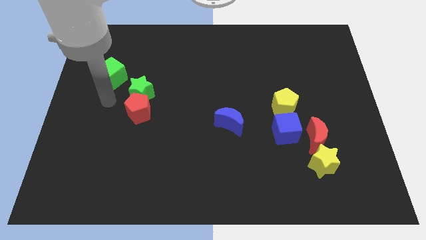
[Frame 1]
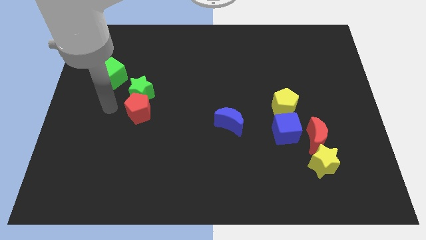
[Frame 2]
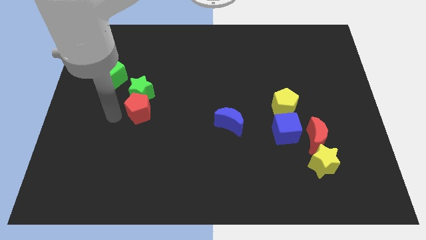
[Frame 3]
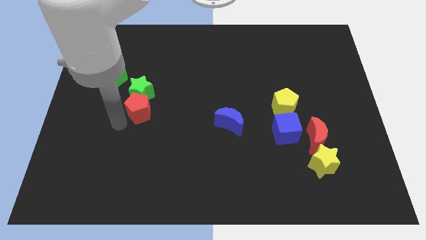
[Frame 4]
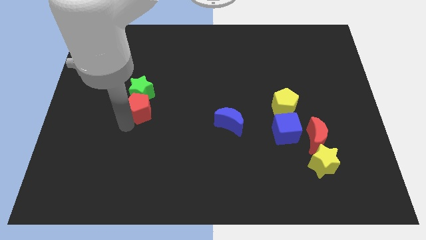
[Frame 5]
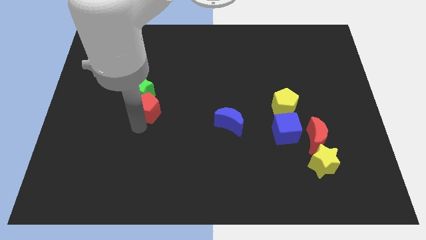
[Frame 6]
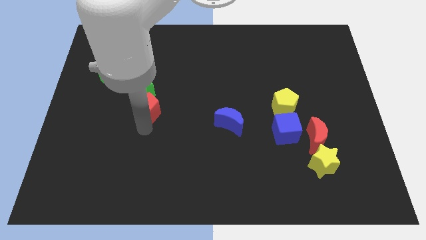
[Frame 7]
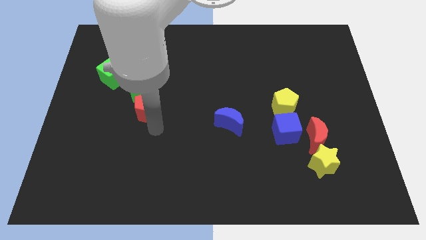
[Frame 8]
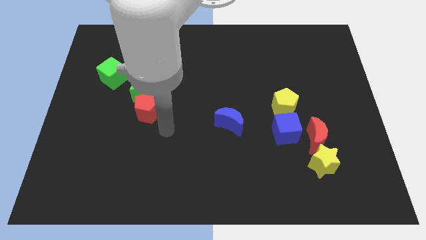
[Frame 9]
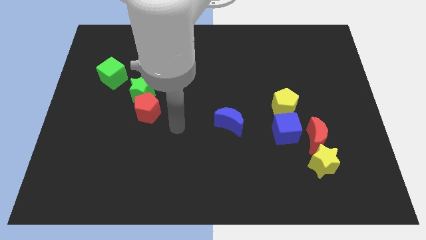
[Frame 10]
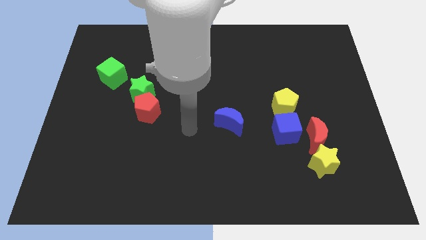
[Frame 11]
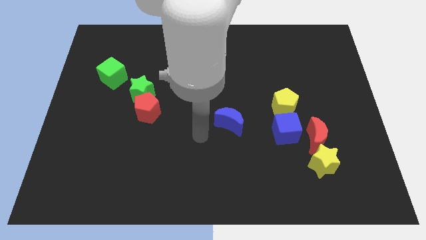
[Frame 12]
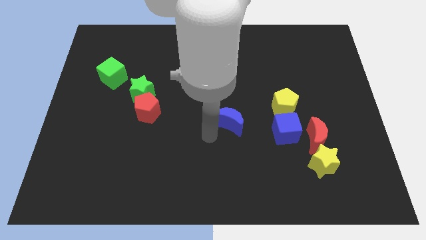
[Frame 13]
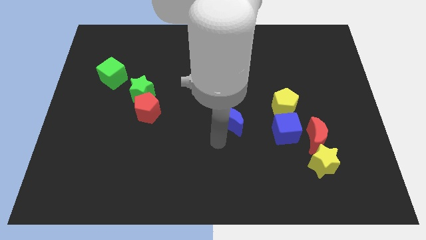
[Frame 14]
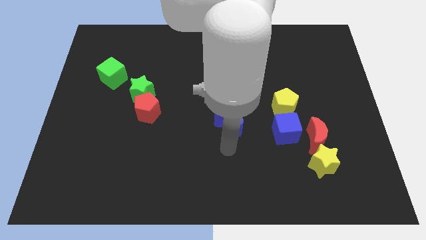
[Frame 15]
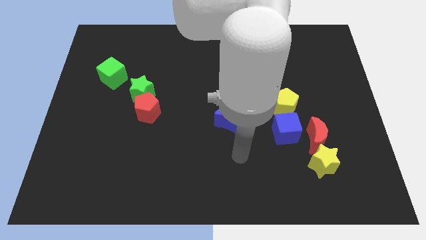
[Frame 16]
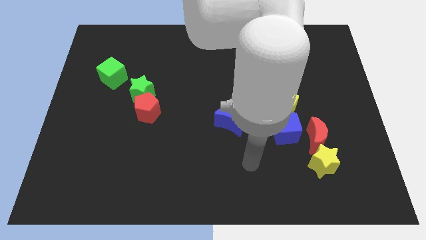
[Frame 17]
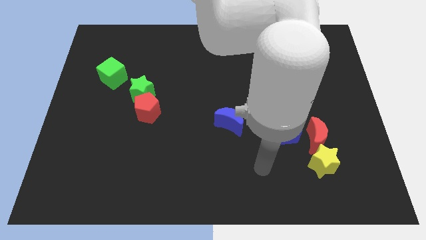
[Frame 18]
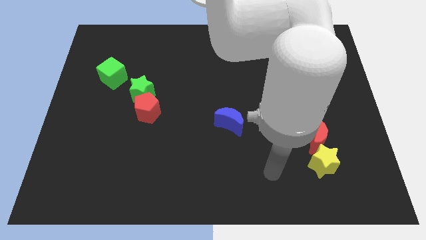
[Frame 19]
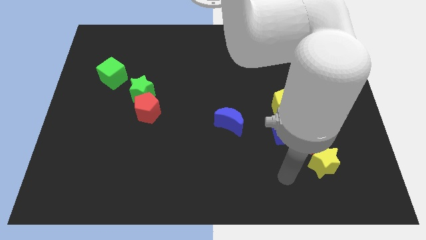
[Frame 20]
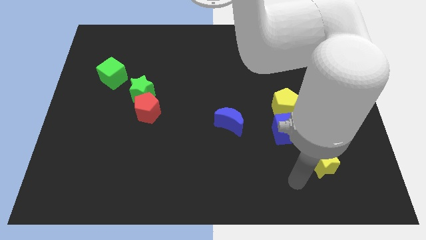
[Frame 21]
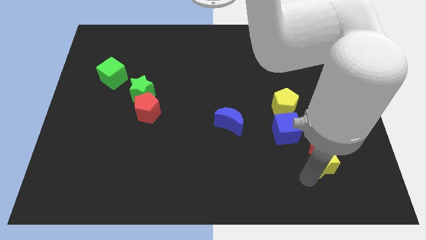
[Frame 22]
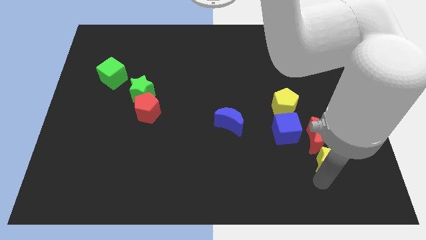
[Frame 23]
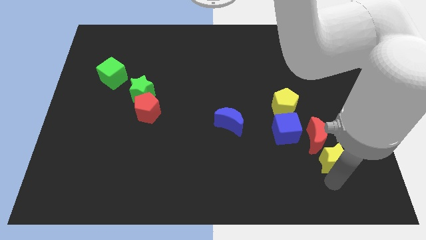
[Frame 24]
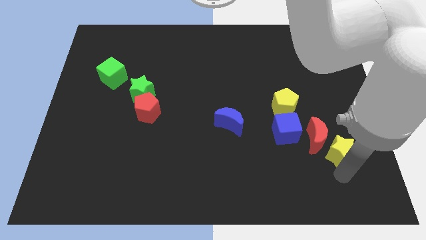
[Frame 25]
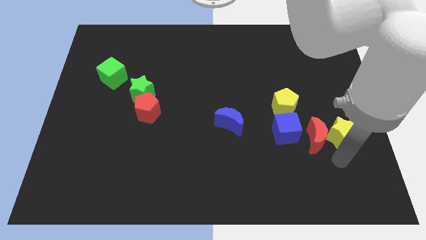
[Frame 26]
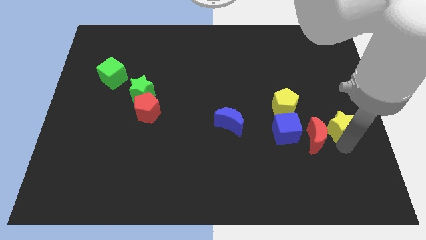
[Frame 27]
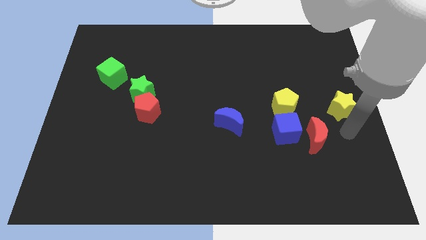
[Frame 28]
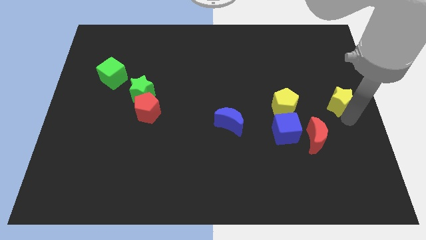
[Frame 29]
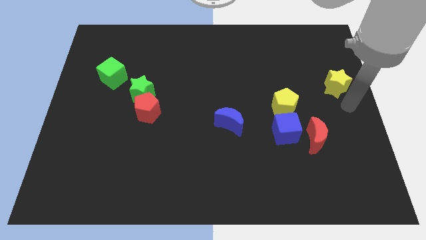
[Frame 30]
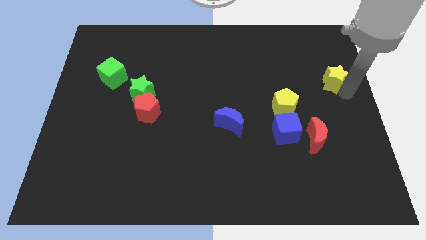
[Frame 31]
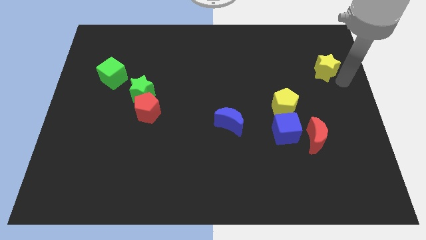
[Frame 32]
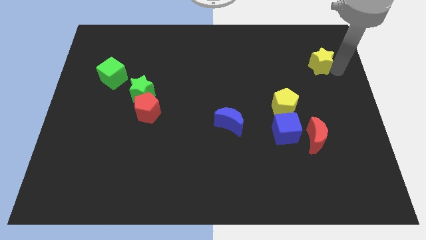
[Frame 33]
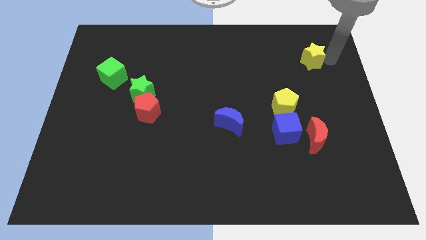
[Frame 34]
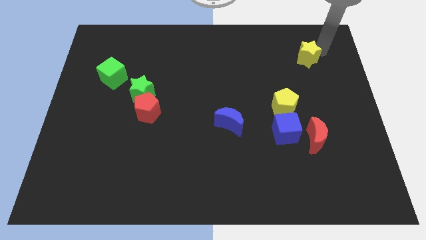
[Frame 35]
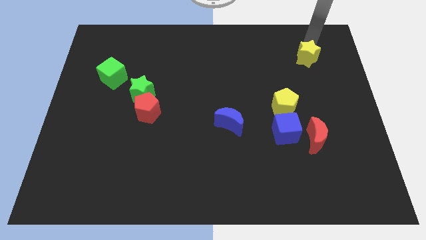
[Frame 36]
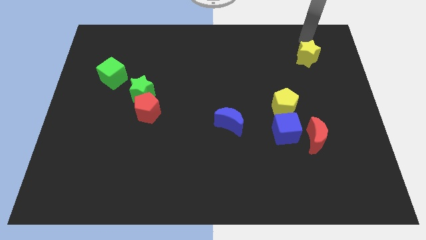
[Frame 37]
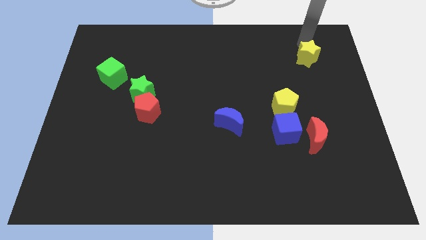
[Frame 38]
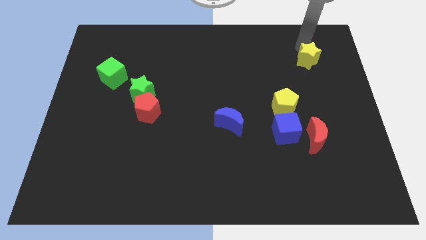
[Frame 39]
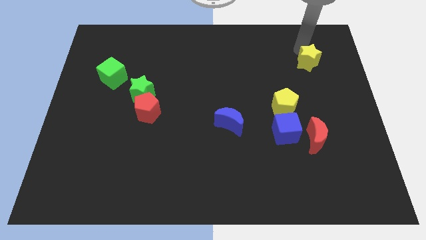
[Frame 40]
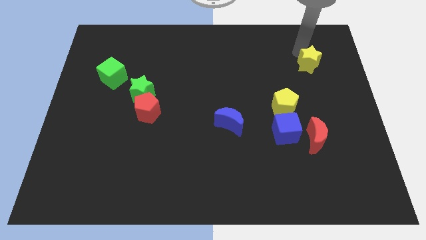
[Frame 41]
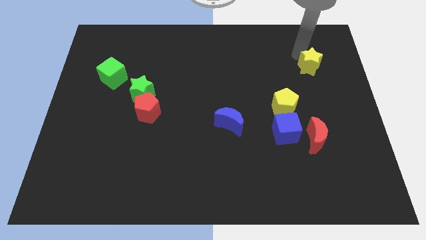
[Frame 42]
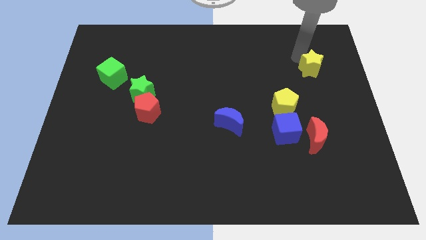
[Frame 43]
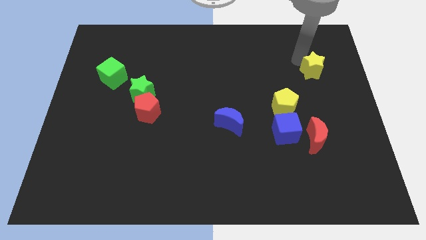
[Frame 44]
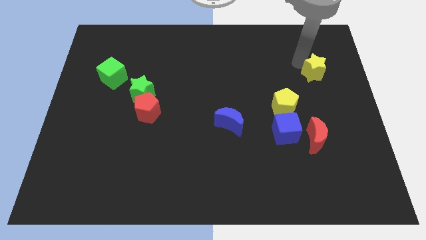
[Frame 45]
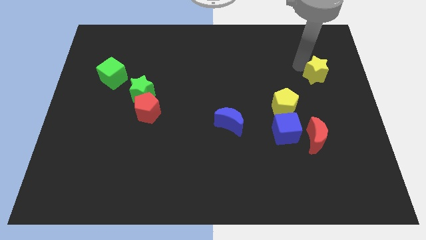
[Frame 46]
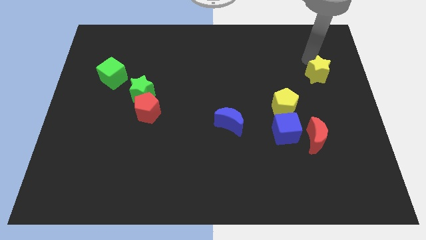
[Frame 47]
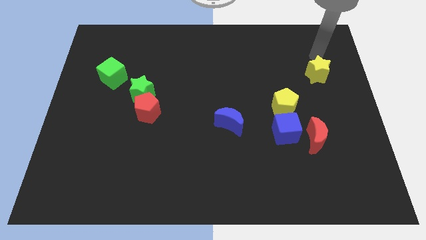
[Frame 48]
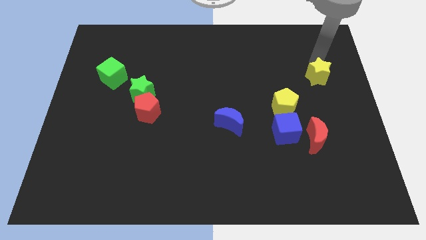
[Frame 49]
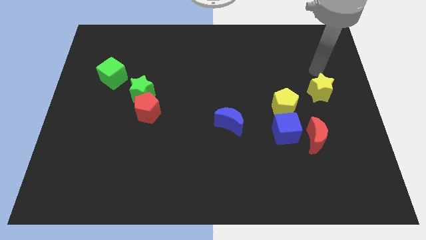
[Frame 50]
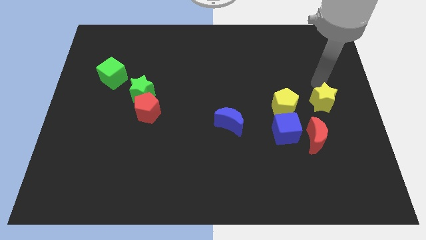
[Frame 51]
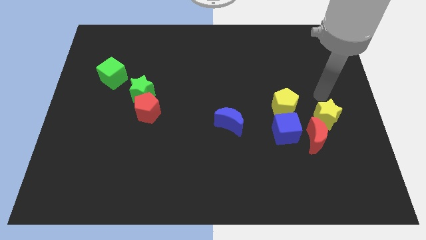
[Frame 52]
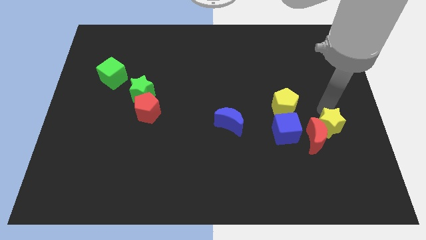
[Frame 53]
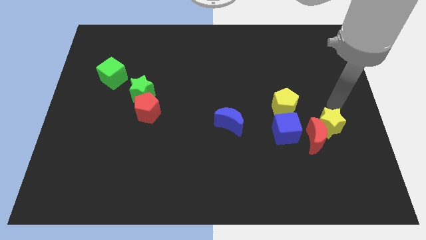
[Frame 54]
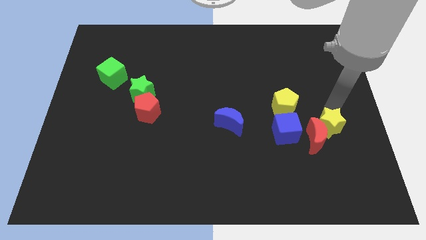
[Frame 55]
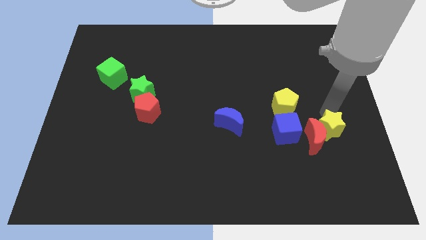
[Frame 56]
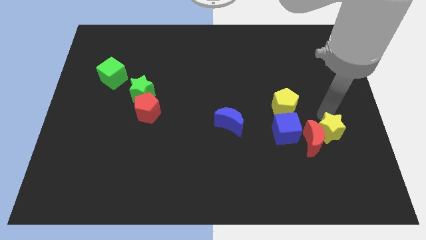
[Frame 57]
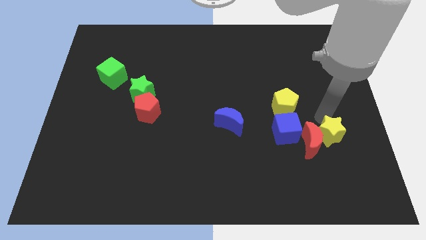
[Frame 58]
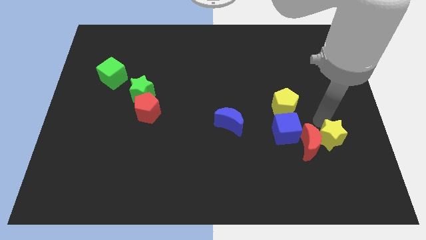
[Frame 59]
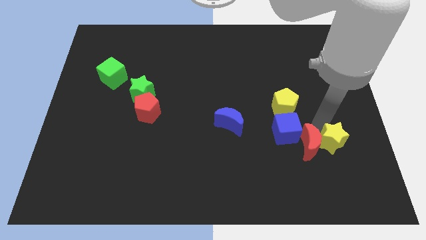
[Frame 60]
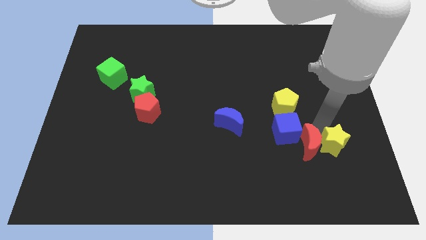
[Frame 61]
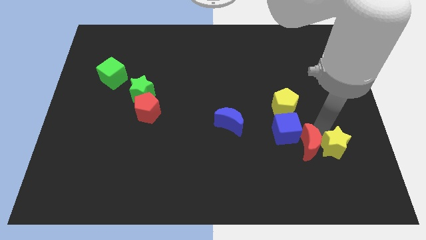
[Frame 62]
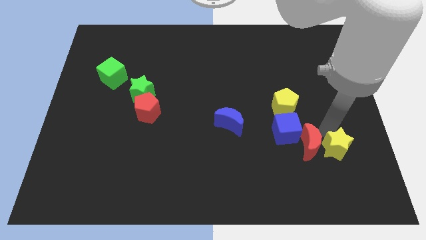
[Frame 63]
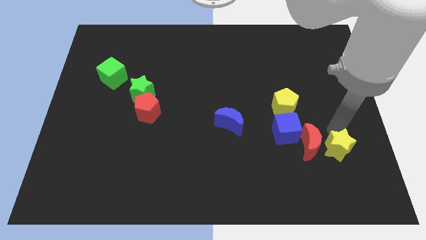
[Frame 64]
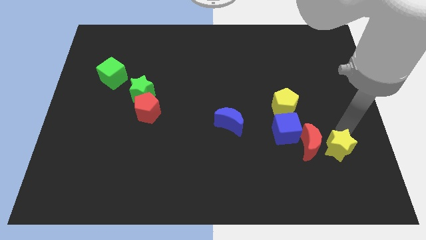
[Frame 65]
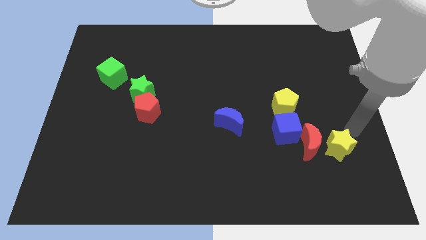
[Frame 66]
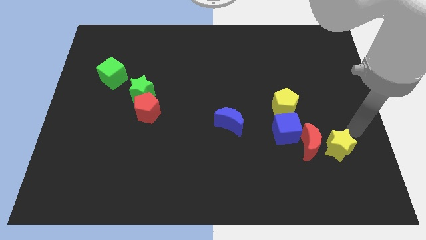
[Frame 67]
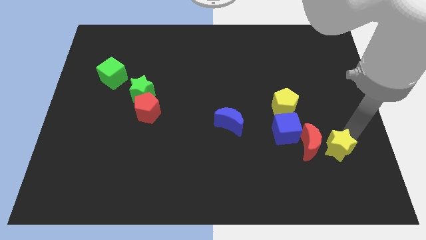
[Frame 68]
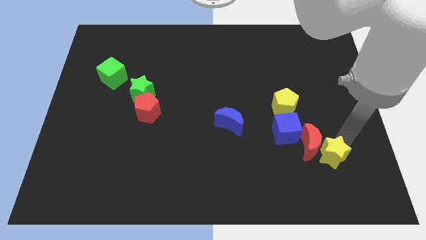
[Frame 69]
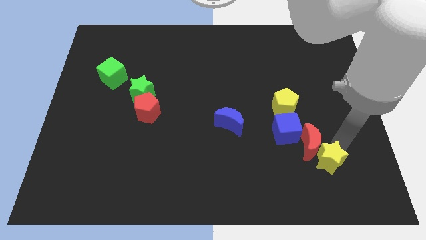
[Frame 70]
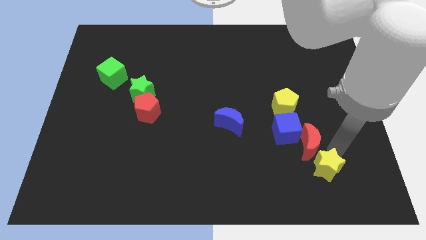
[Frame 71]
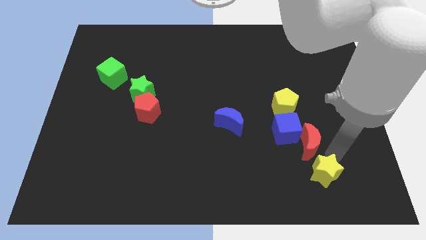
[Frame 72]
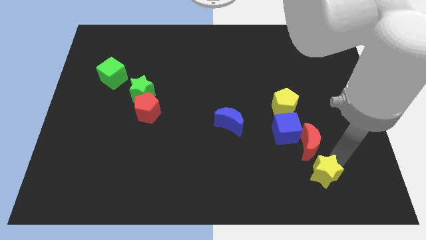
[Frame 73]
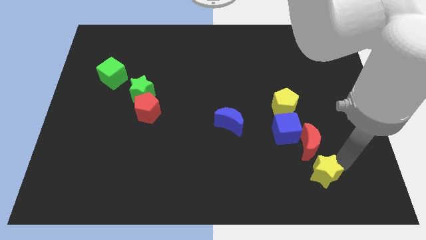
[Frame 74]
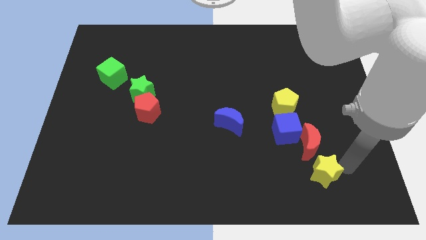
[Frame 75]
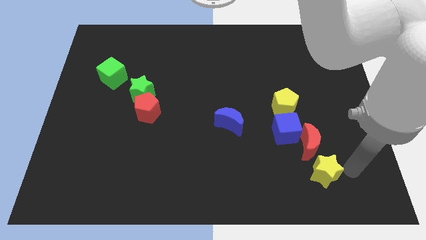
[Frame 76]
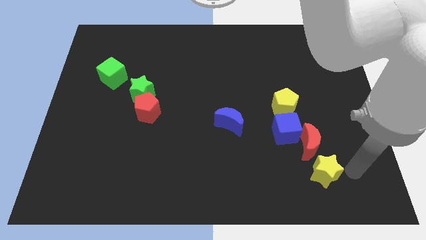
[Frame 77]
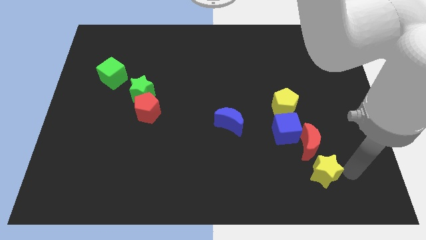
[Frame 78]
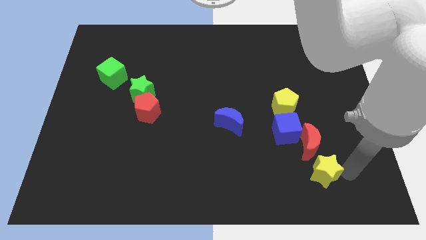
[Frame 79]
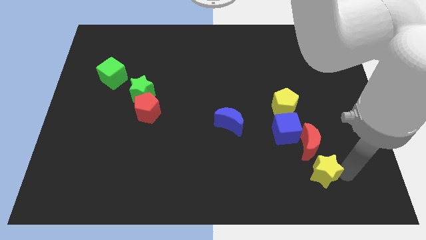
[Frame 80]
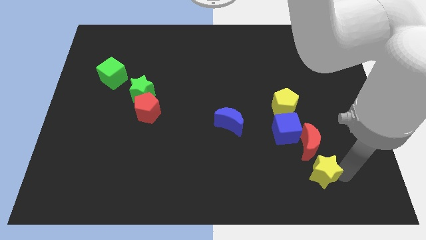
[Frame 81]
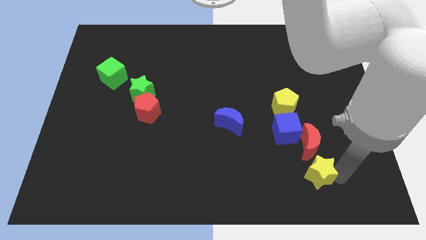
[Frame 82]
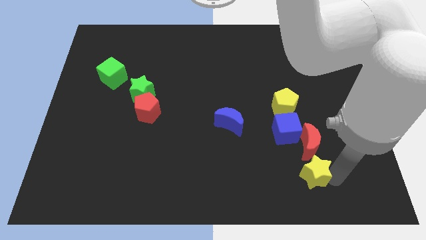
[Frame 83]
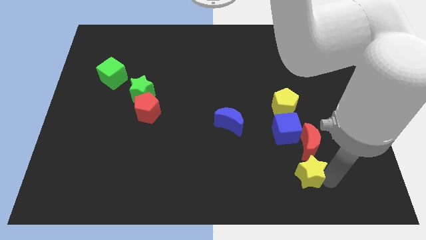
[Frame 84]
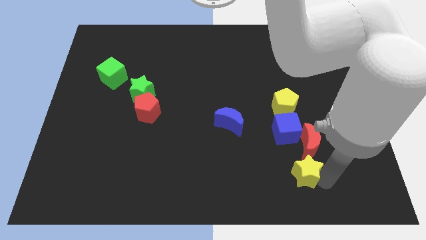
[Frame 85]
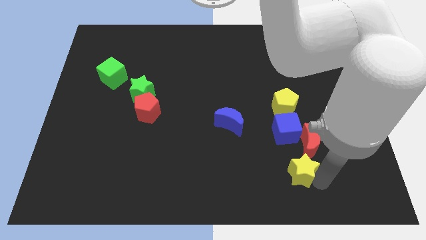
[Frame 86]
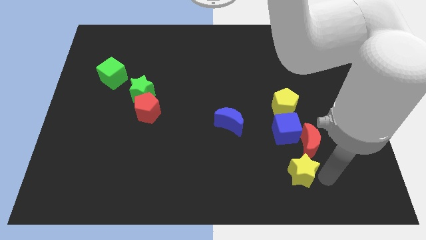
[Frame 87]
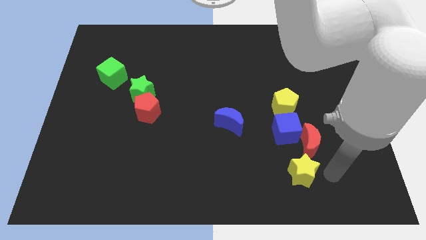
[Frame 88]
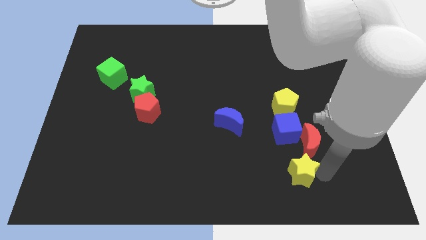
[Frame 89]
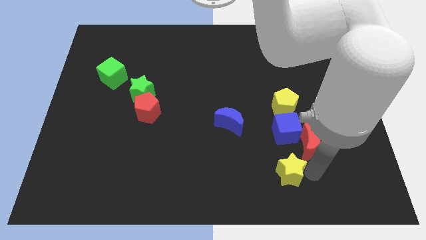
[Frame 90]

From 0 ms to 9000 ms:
slide the yellow star to the left slightly
